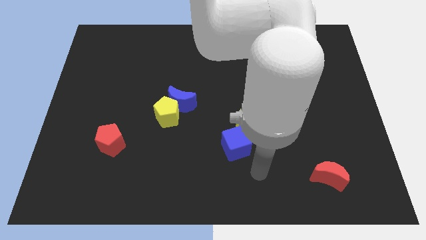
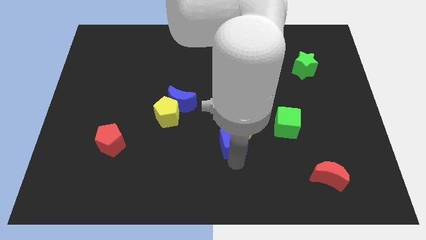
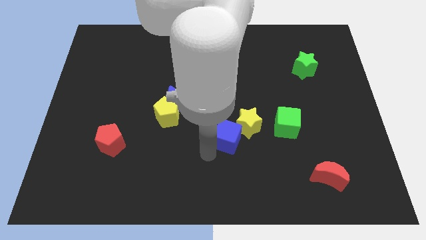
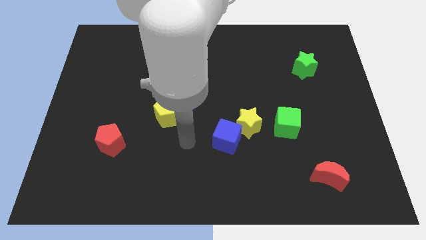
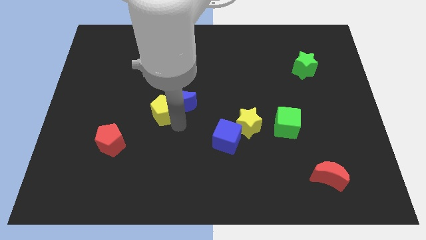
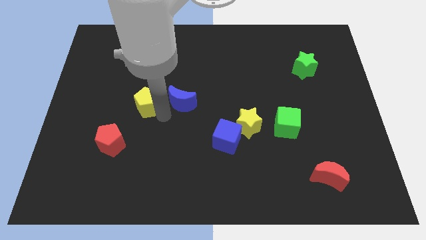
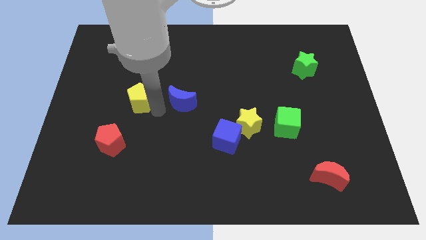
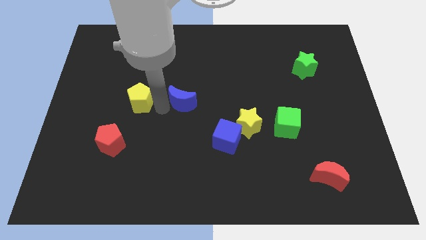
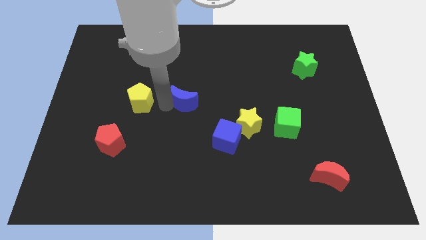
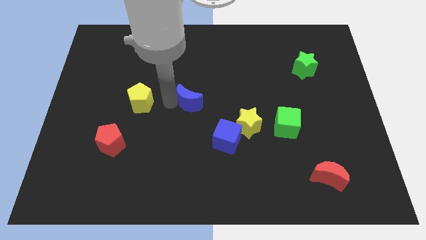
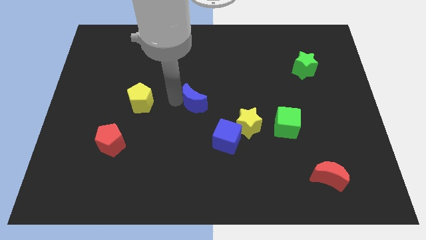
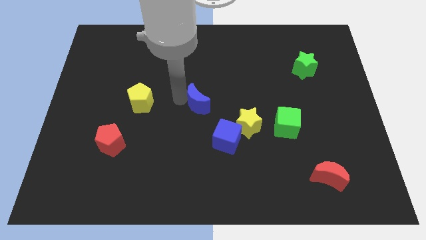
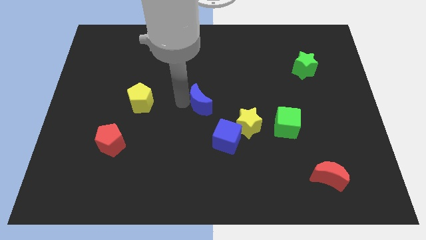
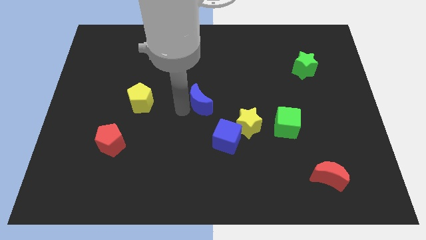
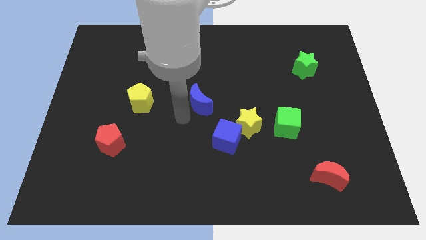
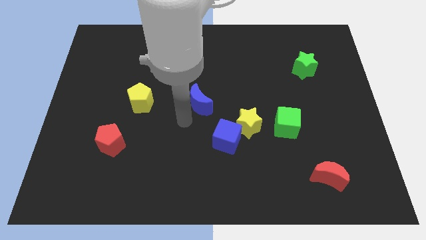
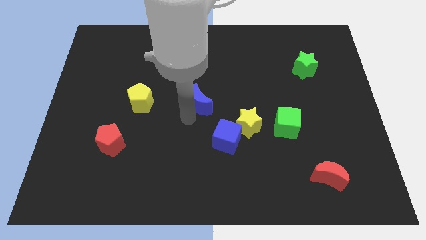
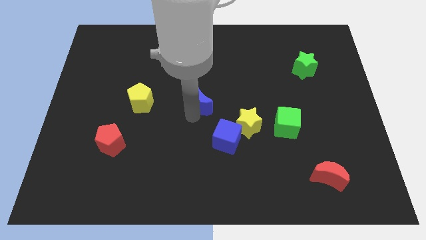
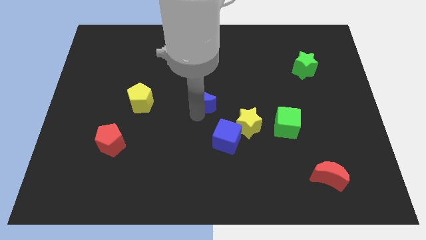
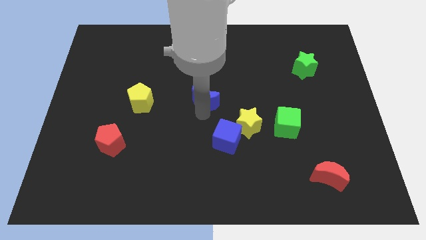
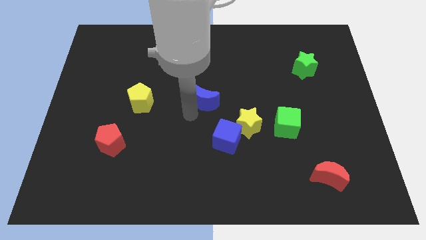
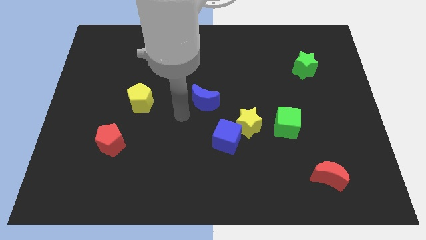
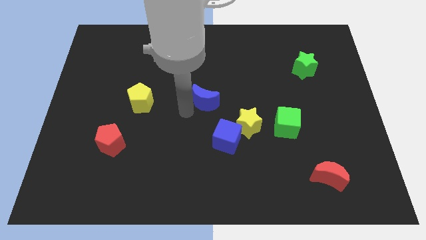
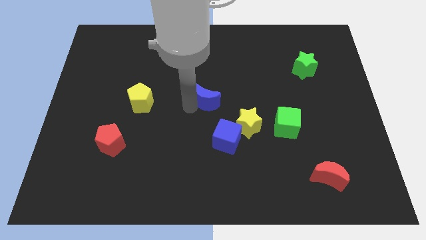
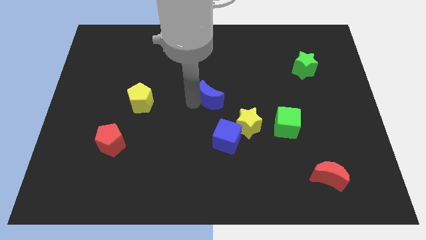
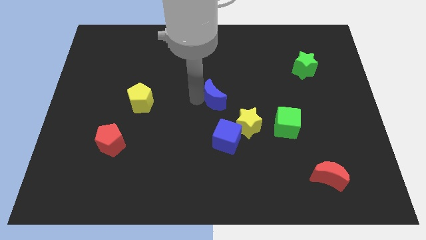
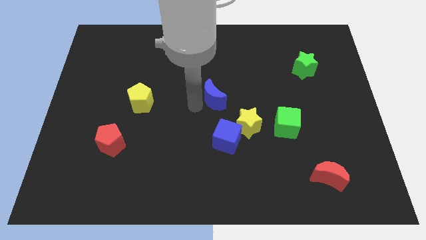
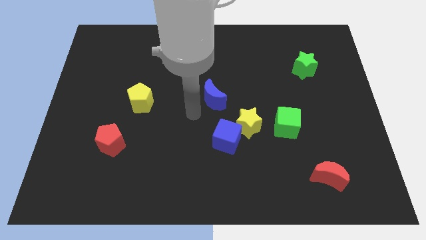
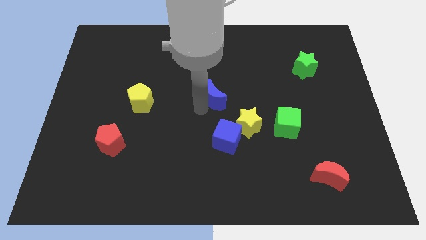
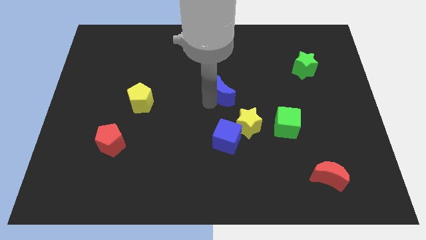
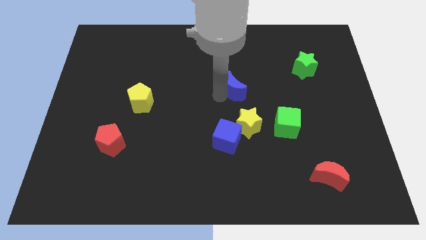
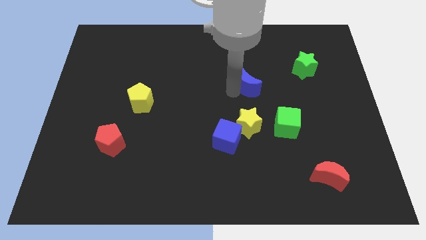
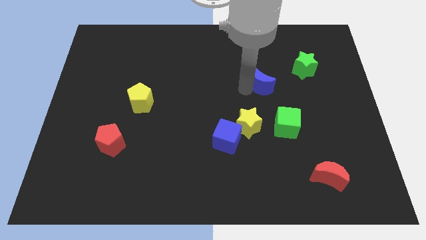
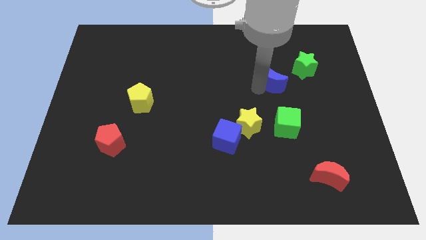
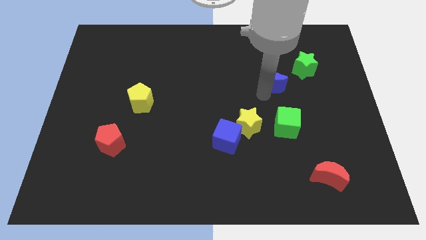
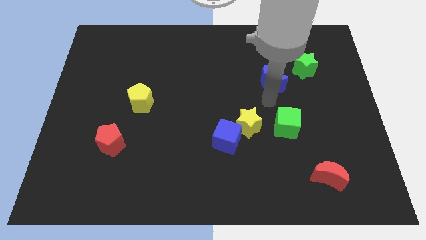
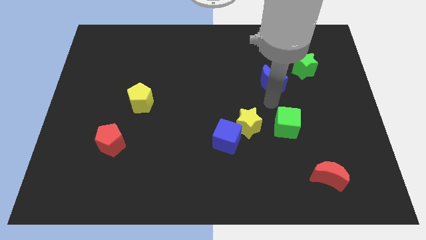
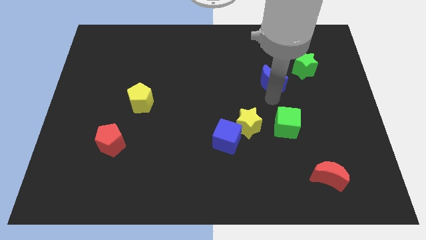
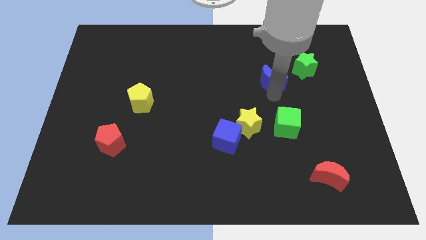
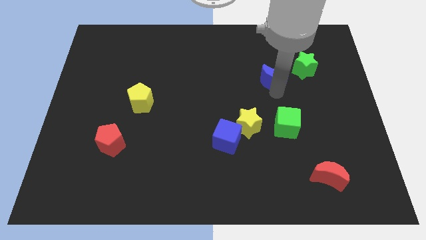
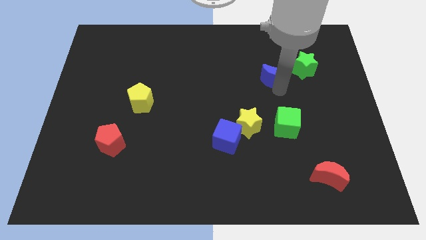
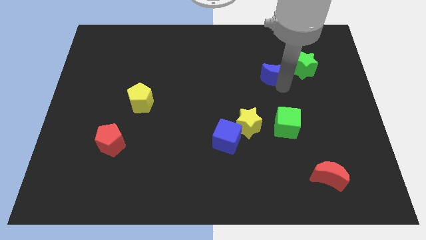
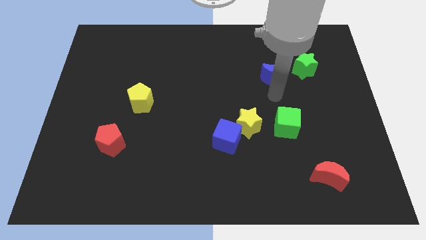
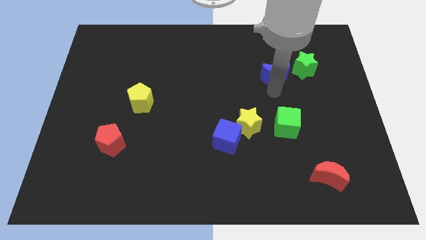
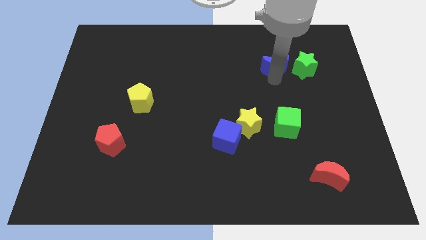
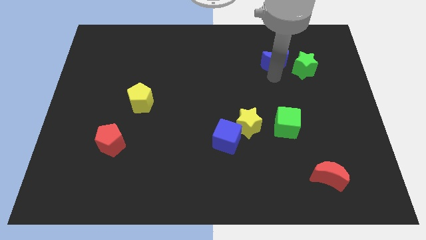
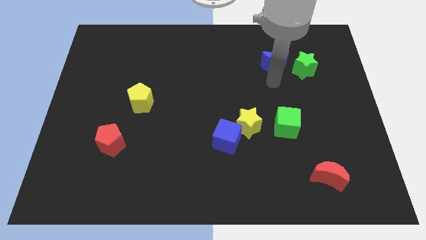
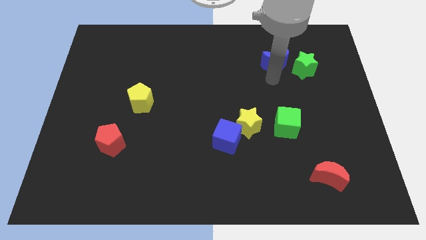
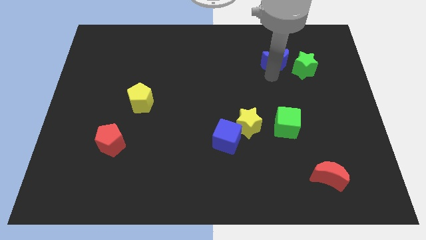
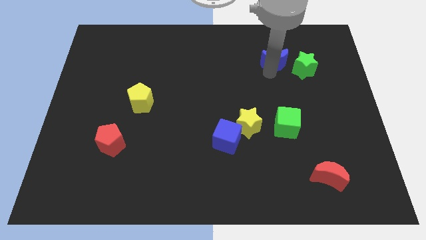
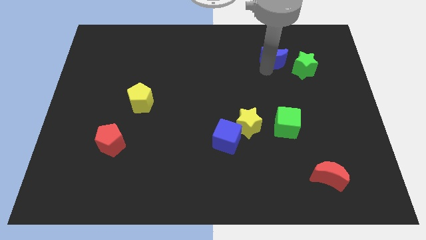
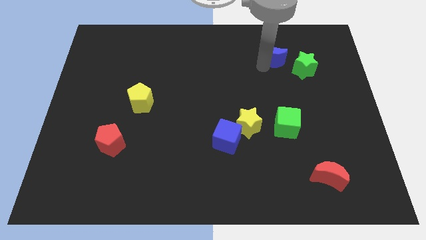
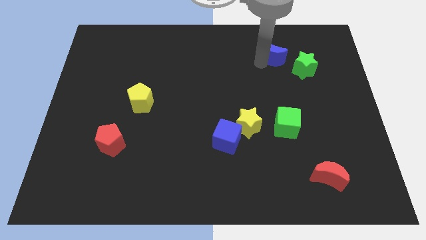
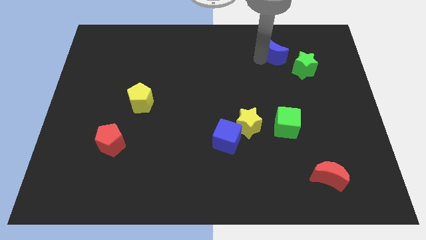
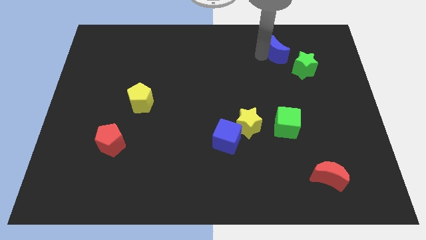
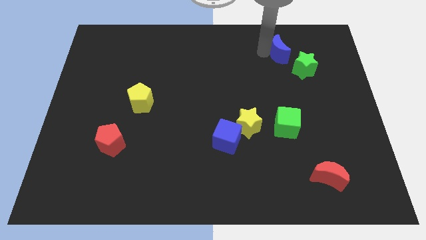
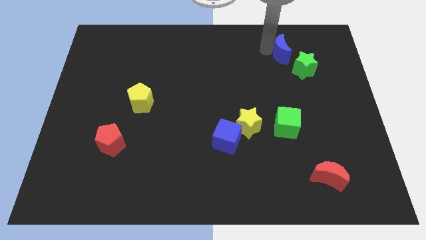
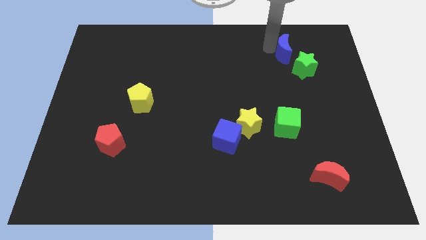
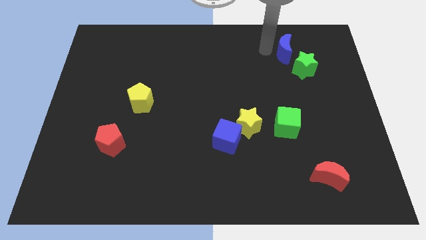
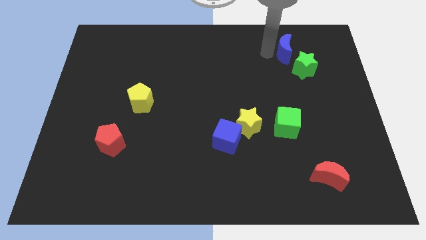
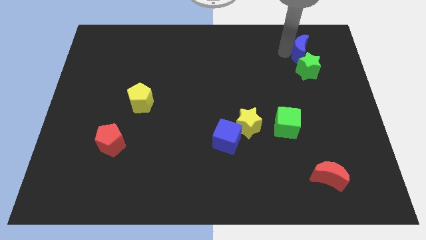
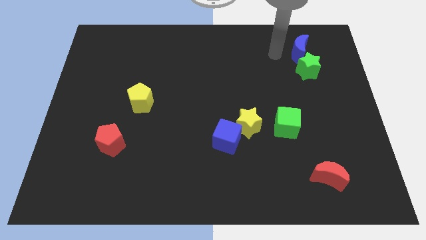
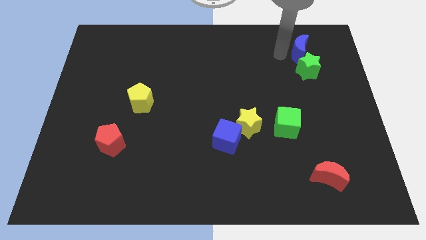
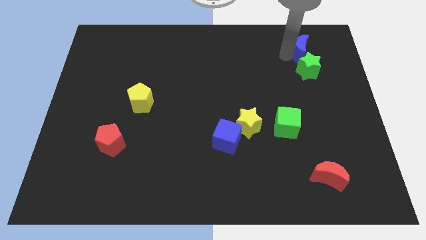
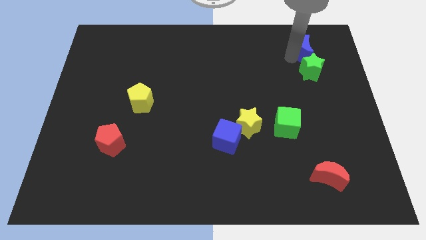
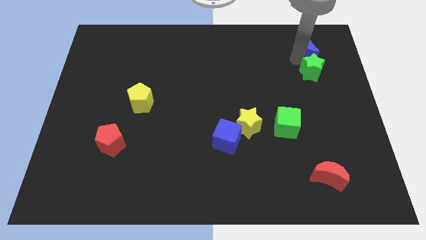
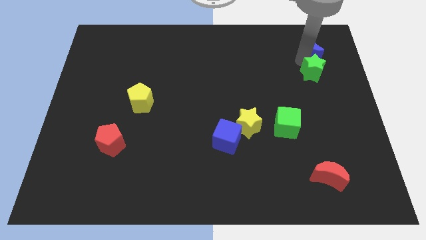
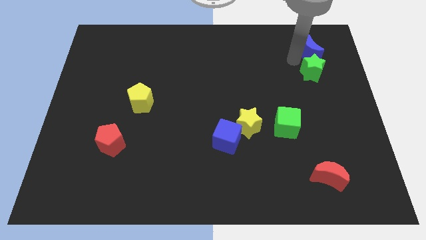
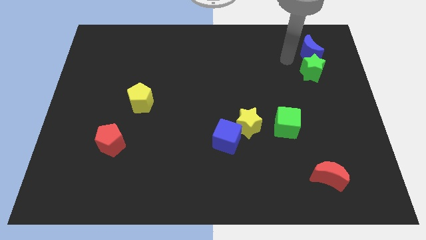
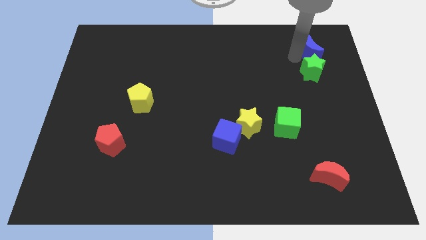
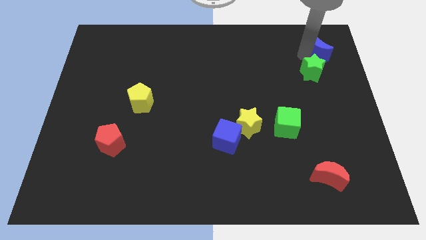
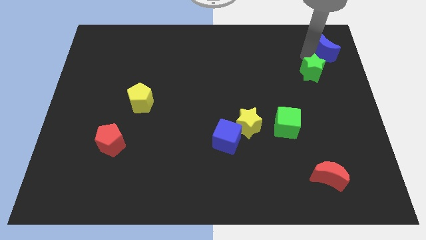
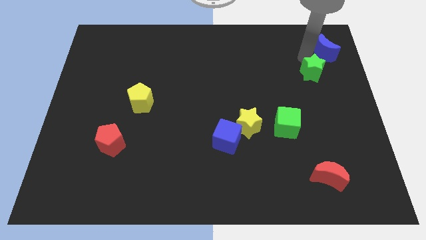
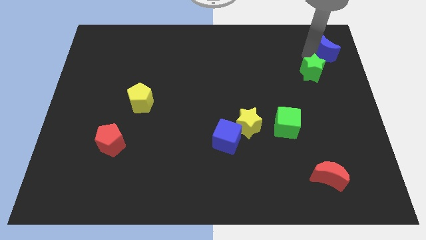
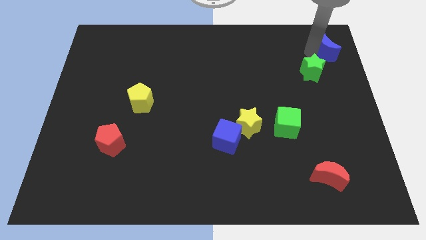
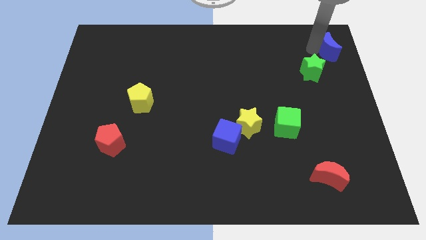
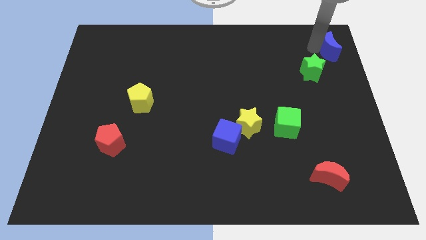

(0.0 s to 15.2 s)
push the blue moon to the top right of the board

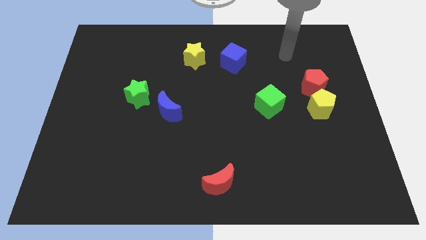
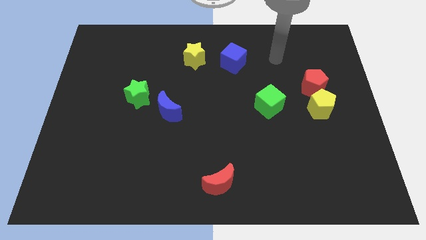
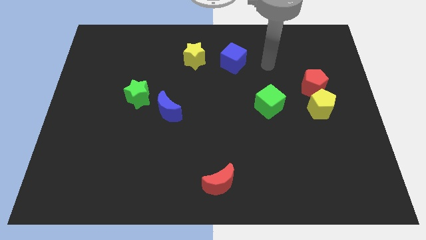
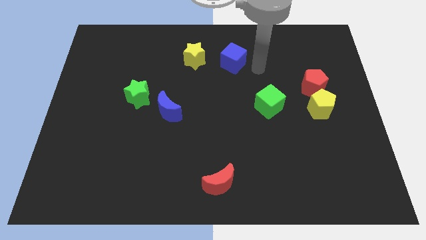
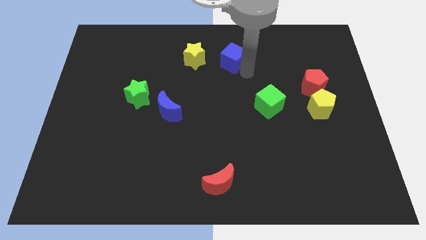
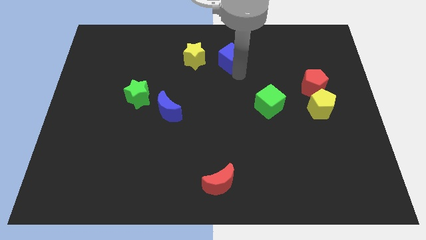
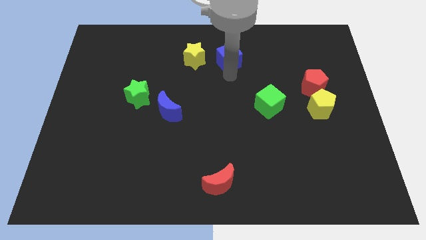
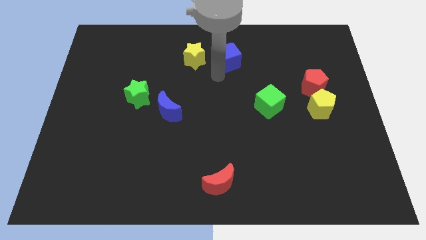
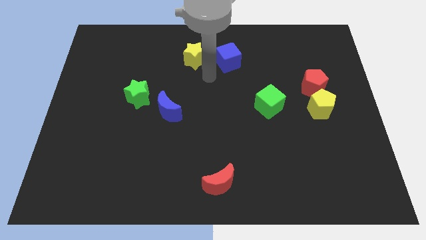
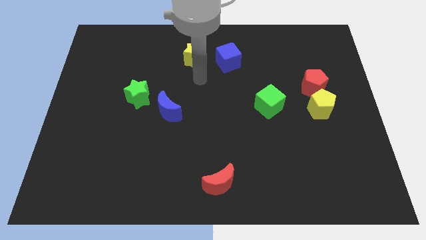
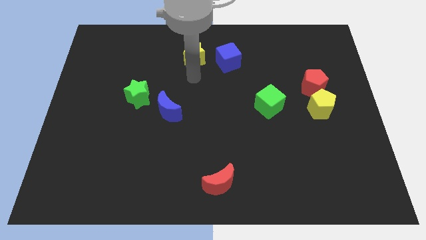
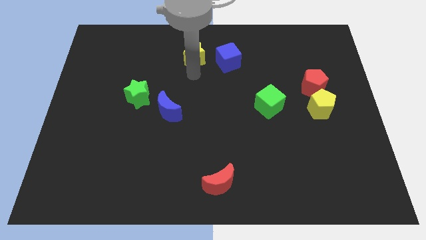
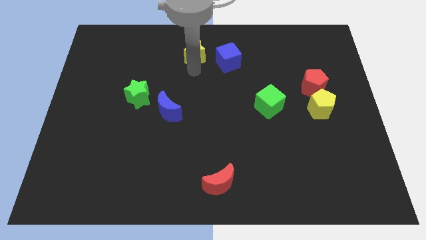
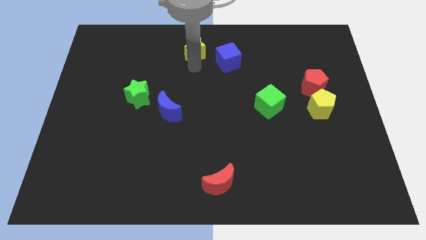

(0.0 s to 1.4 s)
move the yellow star to the top side
